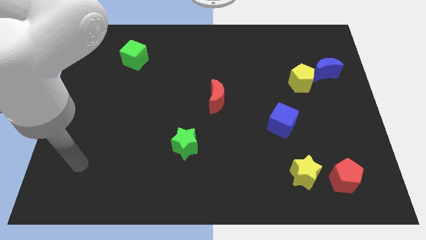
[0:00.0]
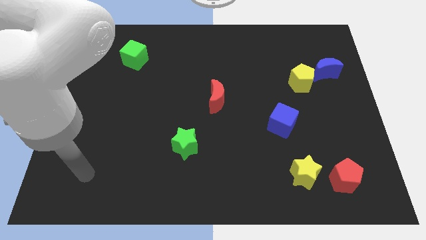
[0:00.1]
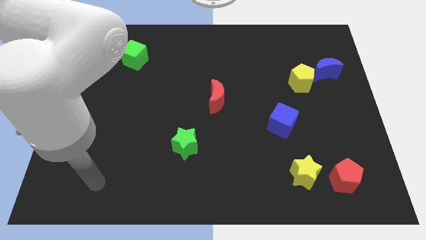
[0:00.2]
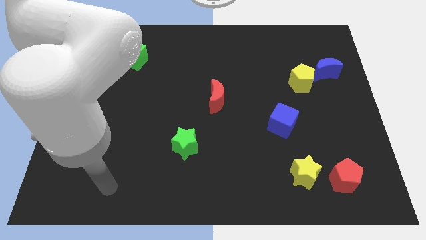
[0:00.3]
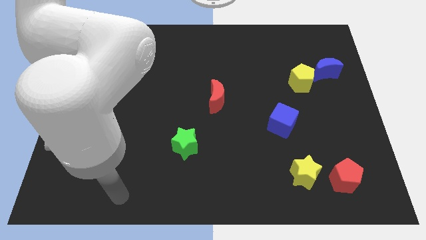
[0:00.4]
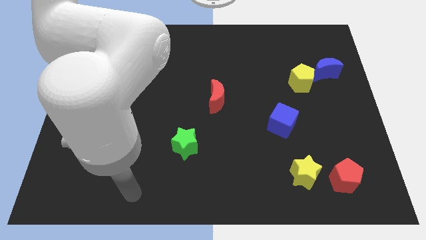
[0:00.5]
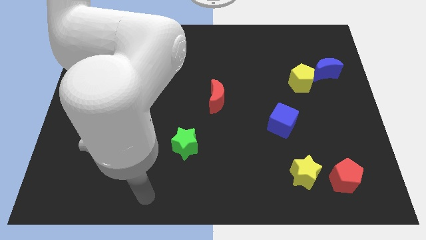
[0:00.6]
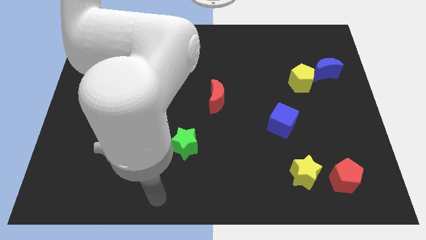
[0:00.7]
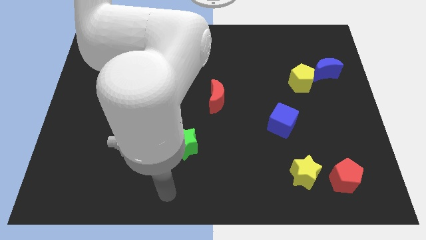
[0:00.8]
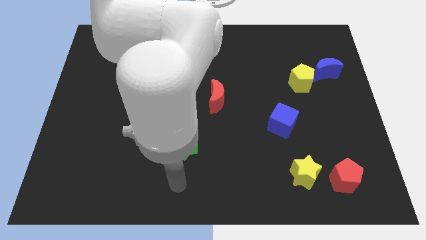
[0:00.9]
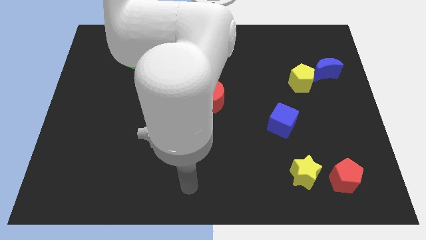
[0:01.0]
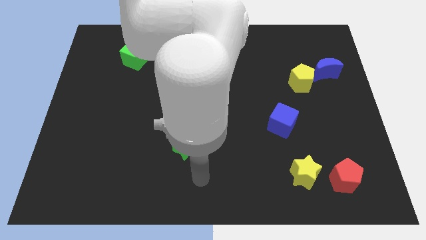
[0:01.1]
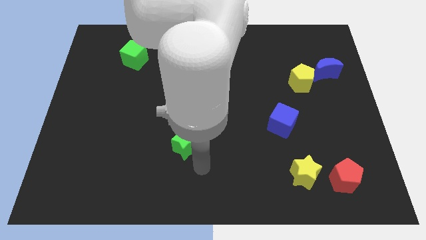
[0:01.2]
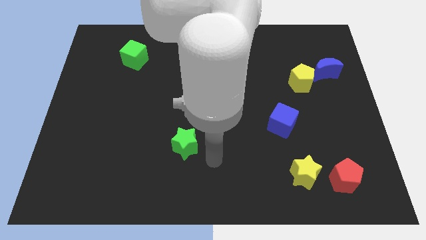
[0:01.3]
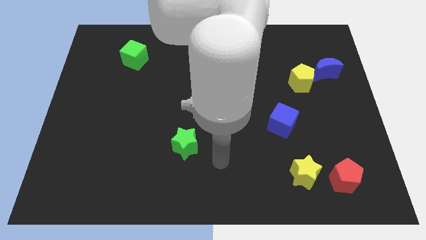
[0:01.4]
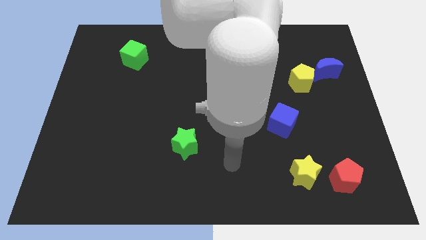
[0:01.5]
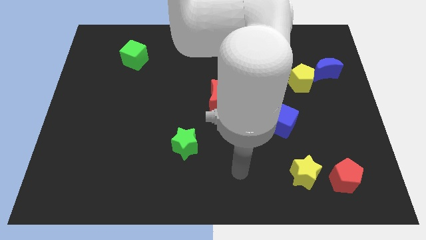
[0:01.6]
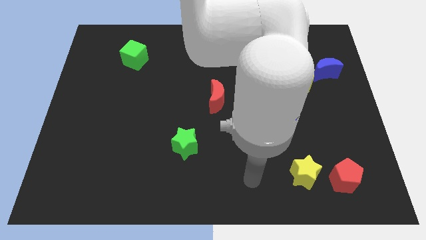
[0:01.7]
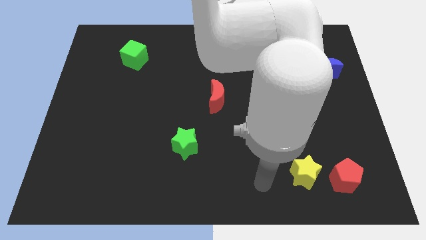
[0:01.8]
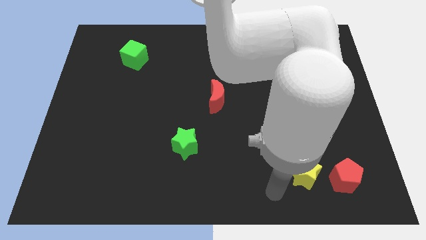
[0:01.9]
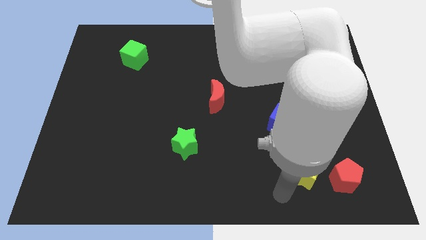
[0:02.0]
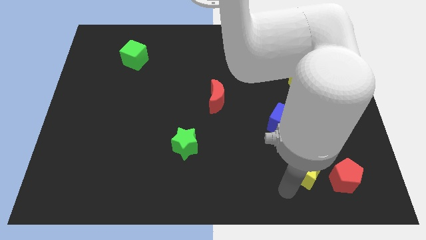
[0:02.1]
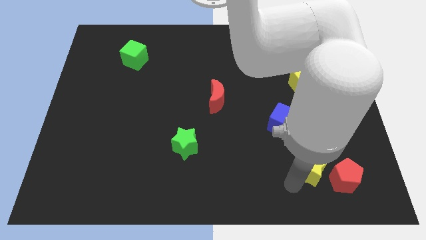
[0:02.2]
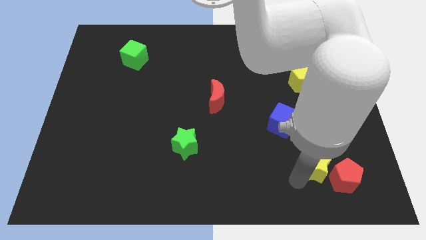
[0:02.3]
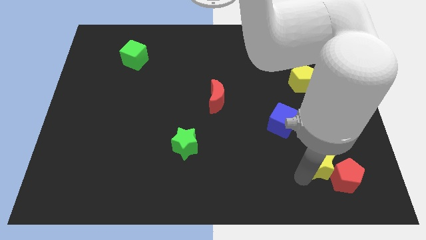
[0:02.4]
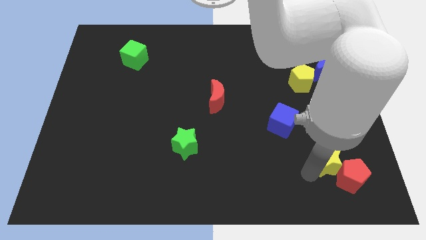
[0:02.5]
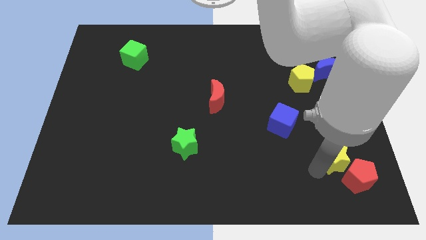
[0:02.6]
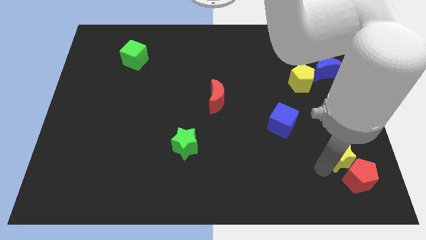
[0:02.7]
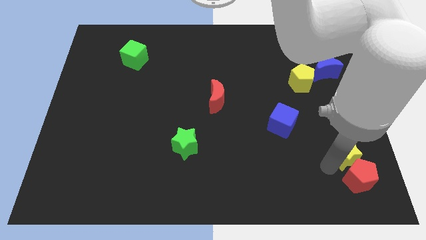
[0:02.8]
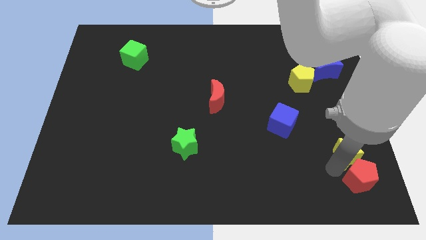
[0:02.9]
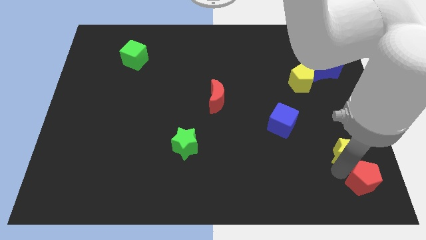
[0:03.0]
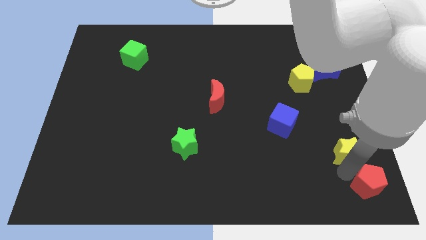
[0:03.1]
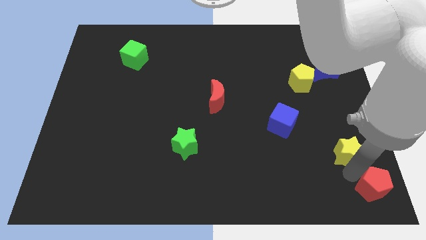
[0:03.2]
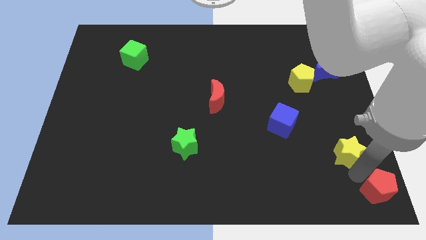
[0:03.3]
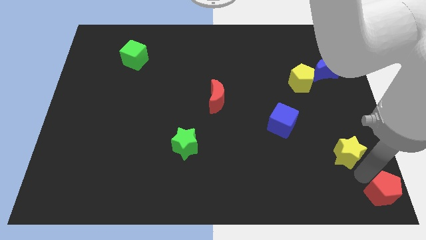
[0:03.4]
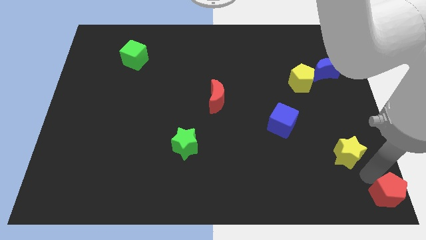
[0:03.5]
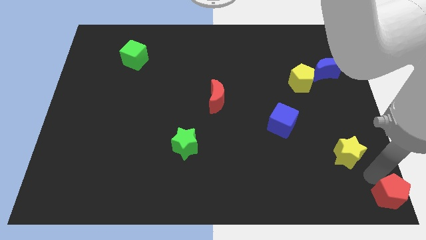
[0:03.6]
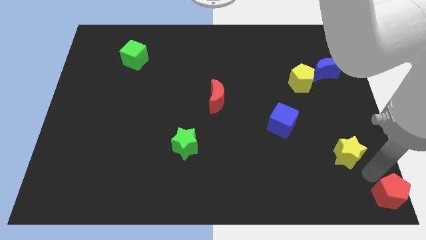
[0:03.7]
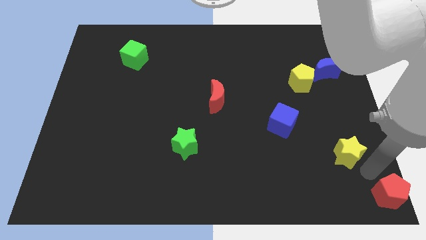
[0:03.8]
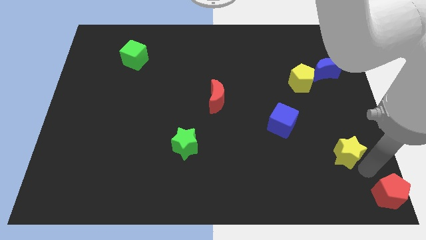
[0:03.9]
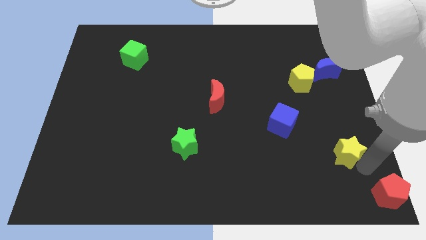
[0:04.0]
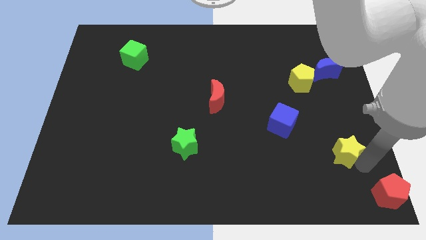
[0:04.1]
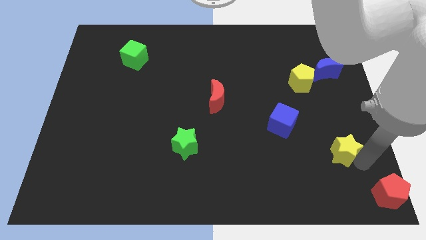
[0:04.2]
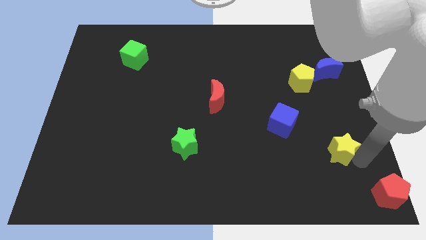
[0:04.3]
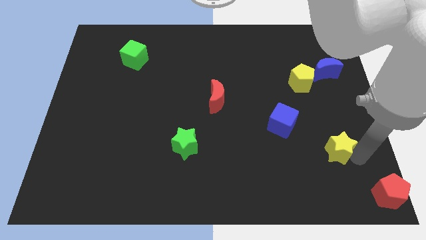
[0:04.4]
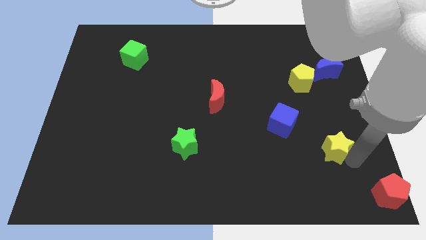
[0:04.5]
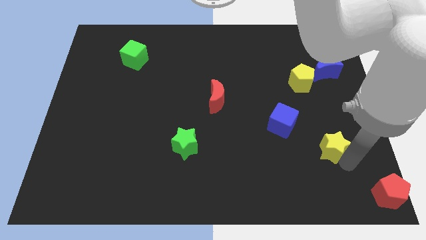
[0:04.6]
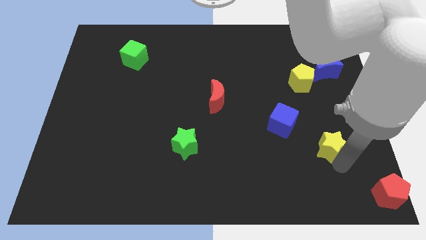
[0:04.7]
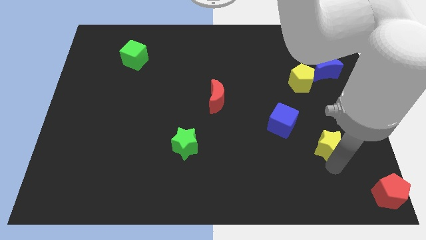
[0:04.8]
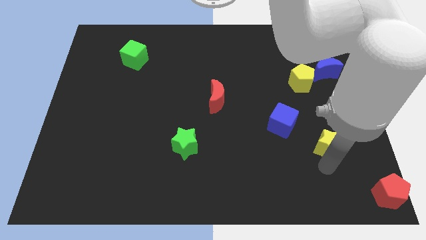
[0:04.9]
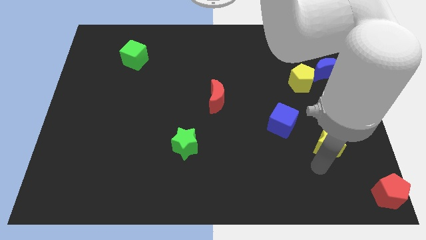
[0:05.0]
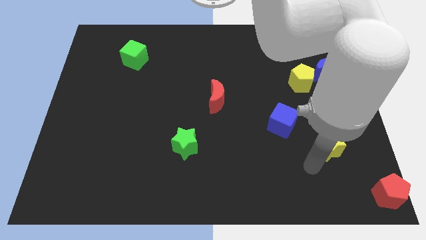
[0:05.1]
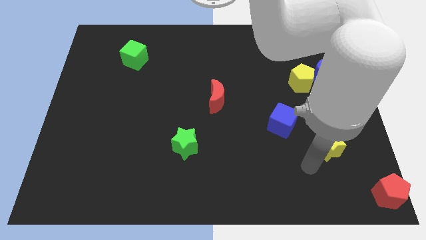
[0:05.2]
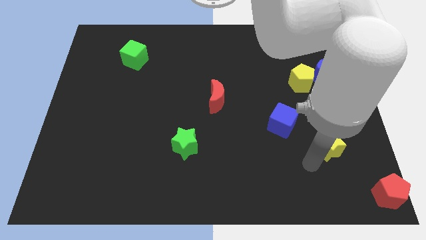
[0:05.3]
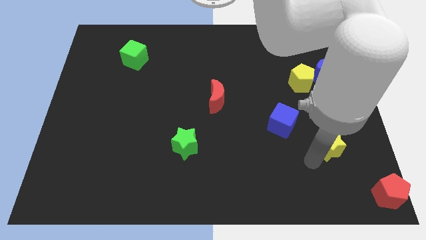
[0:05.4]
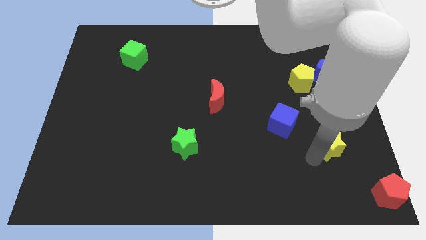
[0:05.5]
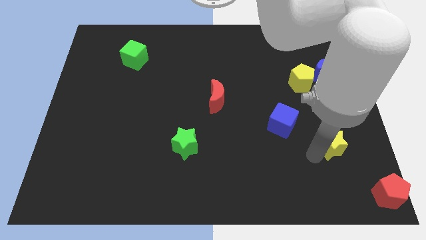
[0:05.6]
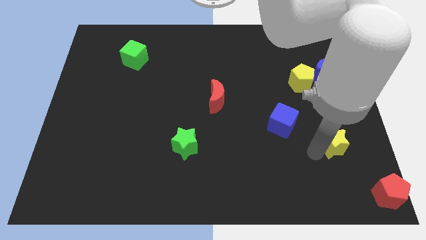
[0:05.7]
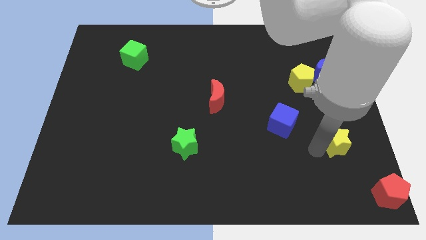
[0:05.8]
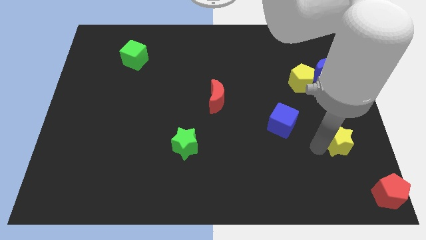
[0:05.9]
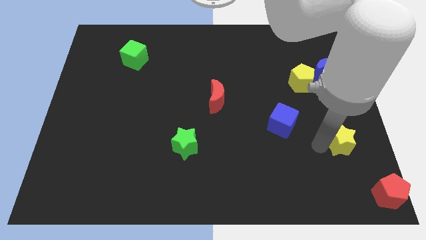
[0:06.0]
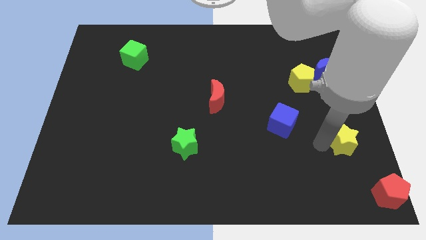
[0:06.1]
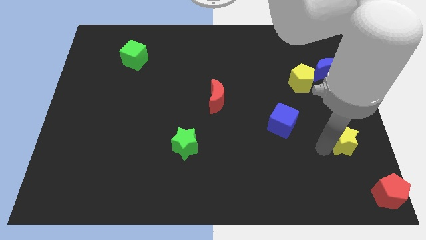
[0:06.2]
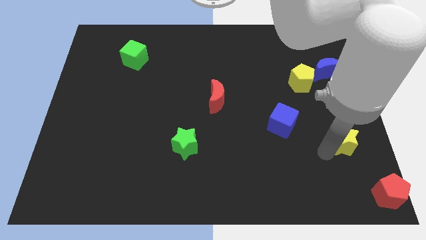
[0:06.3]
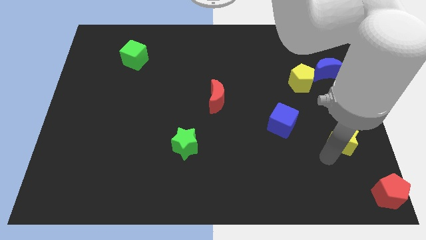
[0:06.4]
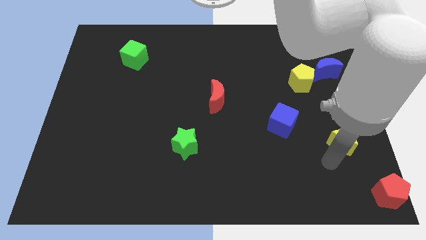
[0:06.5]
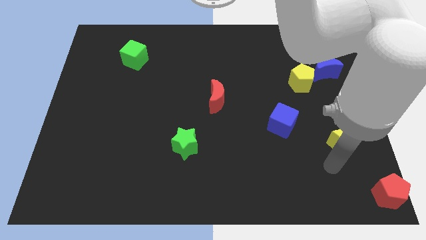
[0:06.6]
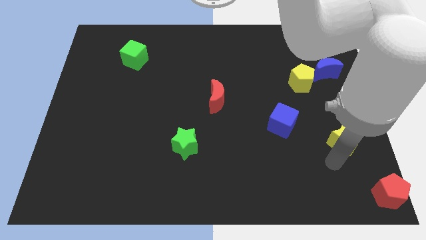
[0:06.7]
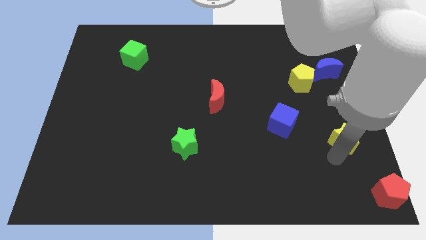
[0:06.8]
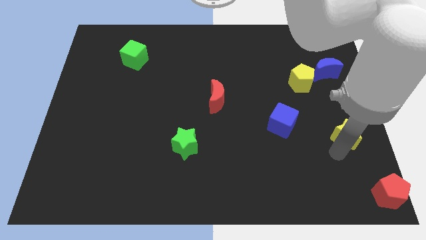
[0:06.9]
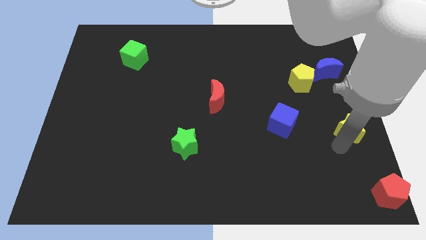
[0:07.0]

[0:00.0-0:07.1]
put the yellow star to the right side of the board
